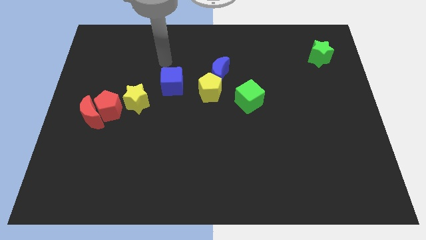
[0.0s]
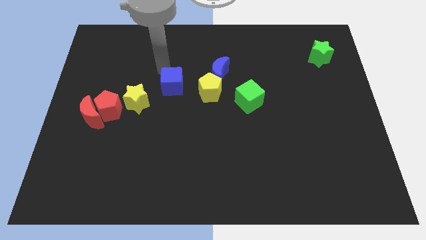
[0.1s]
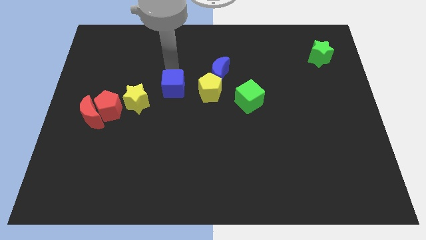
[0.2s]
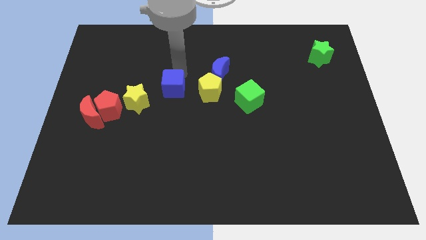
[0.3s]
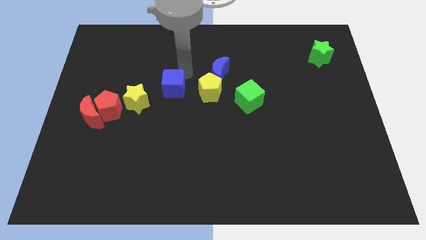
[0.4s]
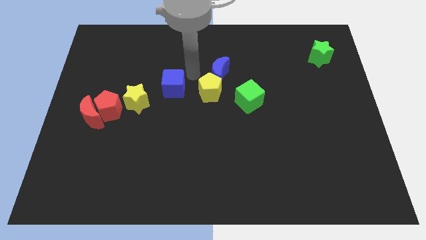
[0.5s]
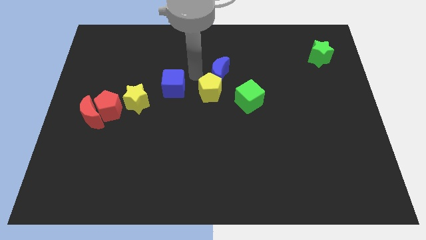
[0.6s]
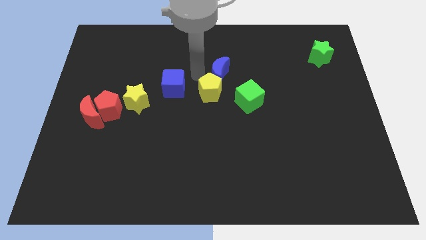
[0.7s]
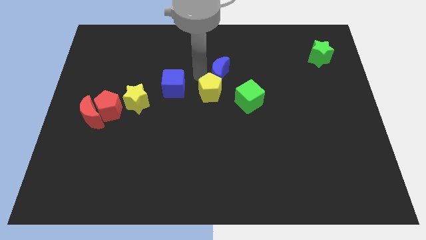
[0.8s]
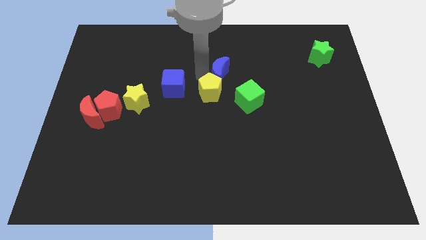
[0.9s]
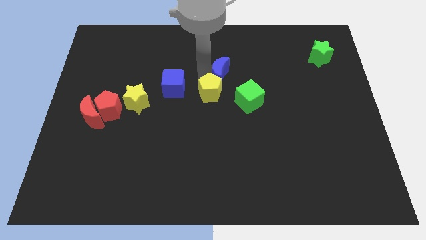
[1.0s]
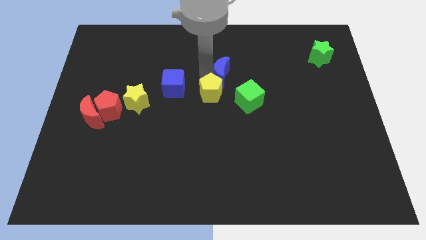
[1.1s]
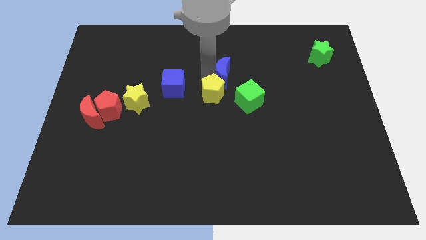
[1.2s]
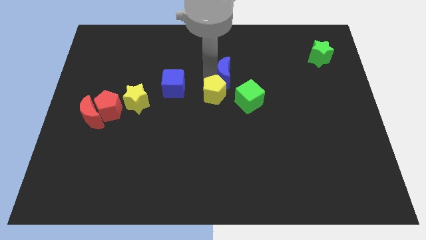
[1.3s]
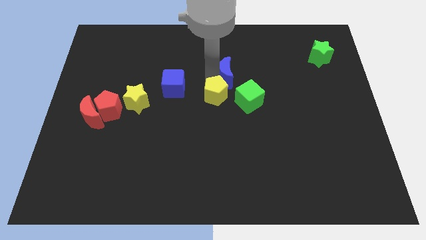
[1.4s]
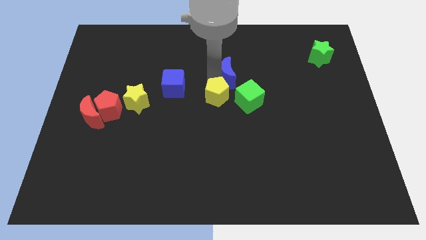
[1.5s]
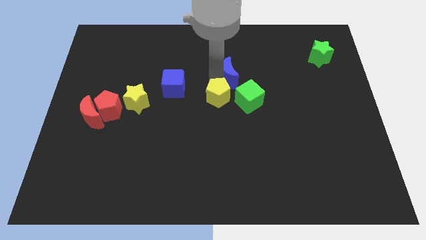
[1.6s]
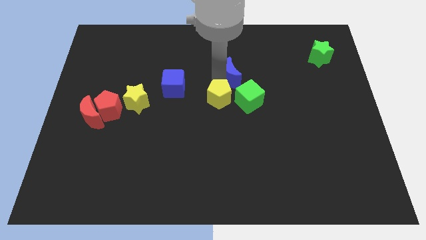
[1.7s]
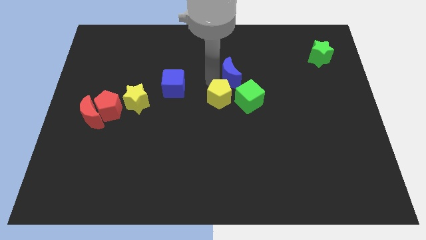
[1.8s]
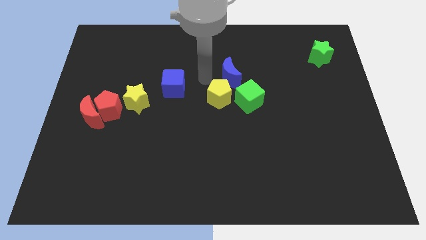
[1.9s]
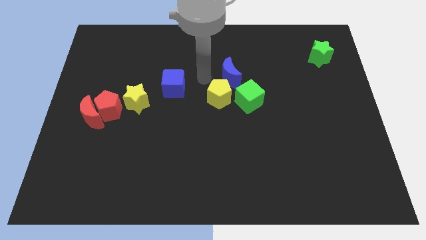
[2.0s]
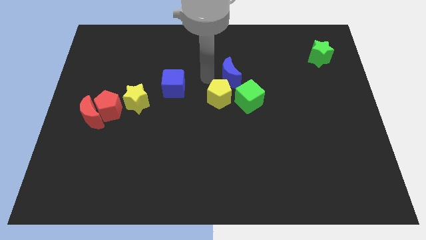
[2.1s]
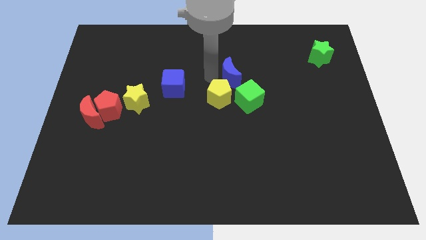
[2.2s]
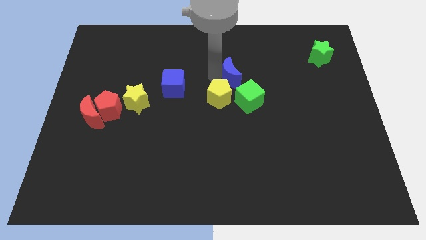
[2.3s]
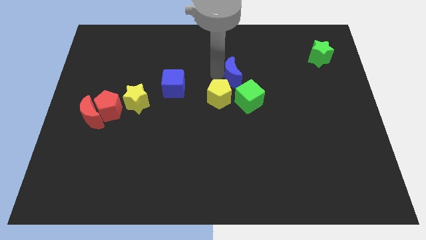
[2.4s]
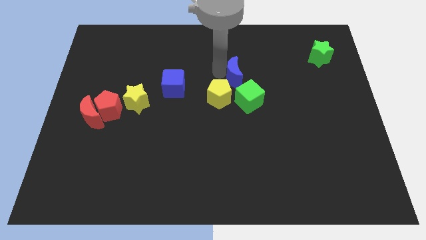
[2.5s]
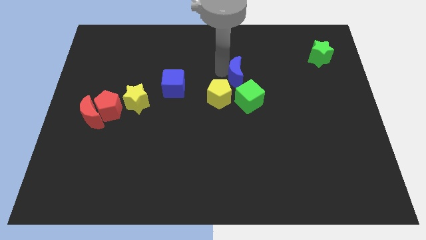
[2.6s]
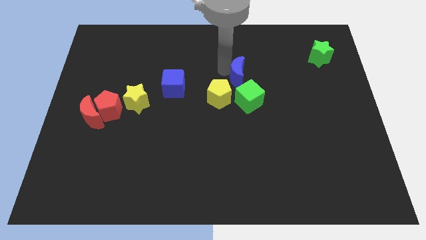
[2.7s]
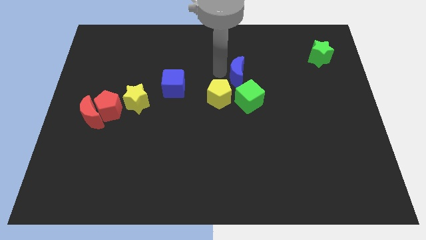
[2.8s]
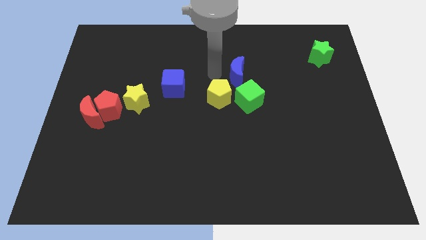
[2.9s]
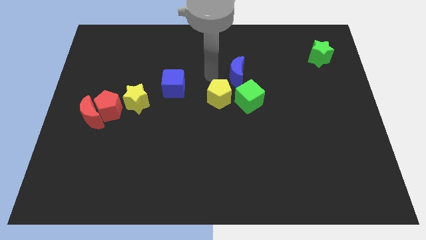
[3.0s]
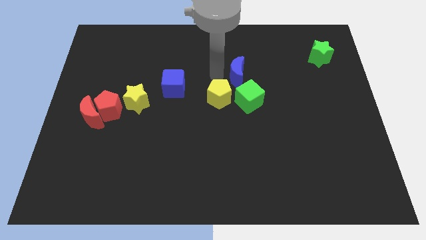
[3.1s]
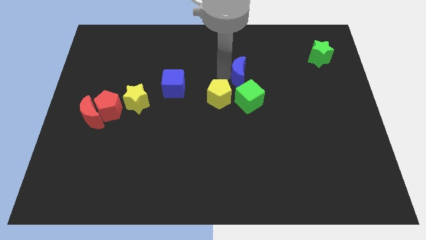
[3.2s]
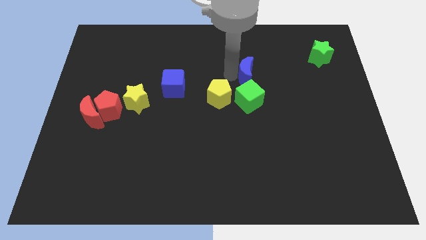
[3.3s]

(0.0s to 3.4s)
move the blue moon somewhat to the right

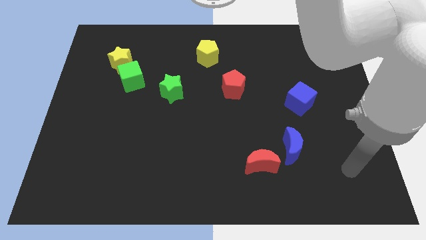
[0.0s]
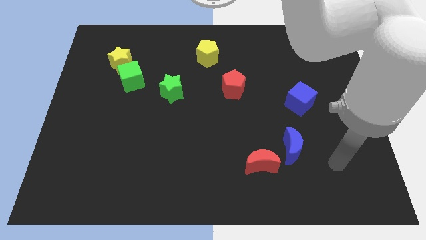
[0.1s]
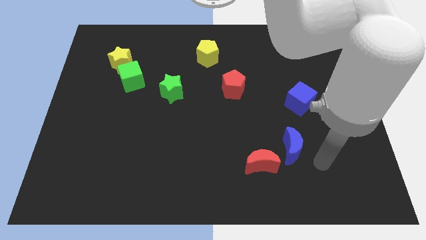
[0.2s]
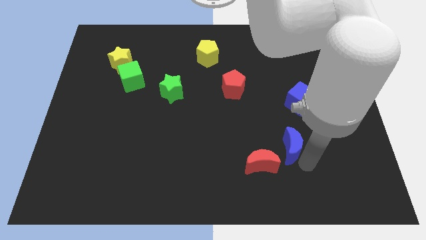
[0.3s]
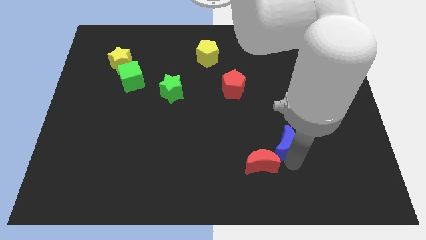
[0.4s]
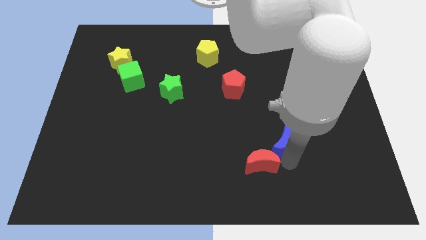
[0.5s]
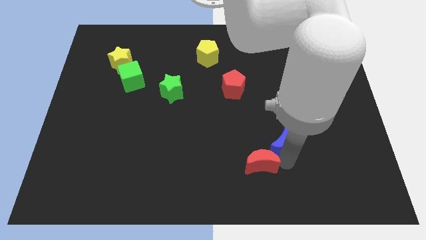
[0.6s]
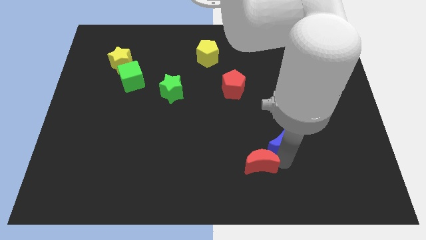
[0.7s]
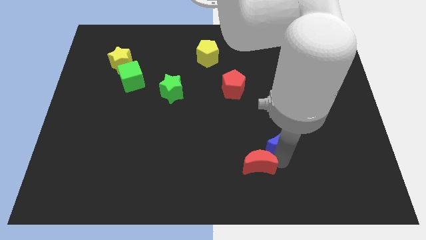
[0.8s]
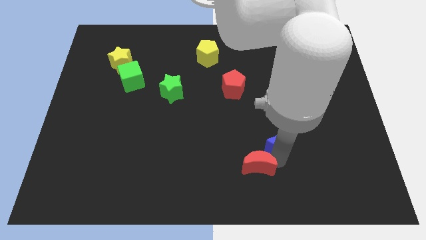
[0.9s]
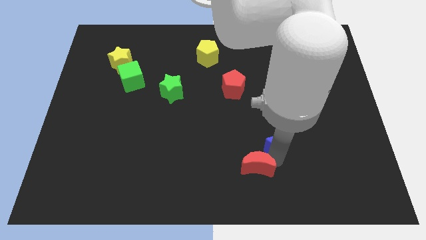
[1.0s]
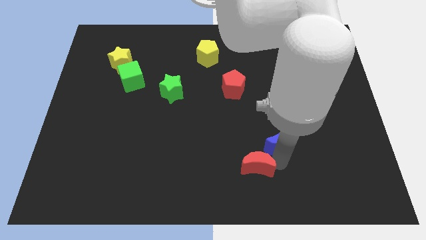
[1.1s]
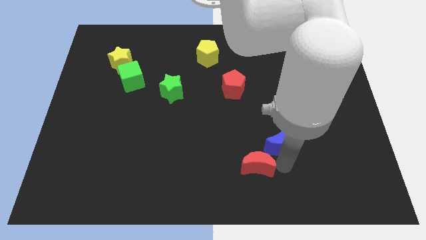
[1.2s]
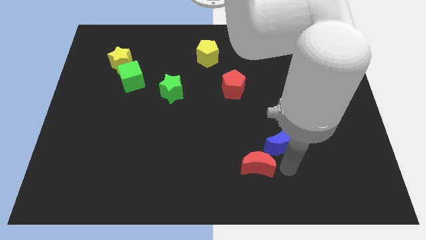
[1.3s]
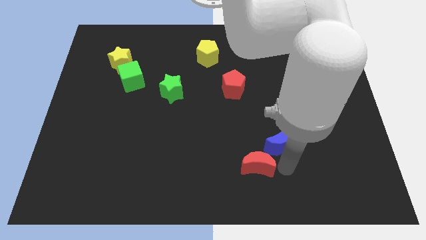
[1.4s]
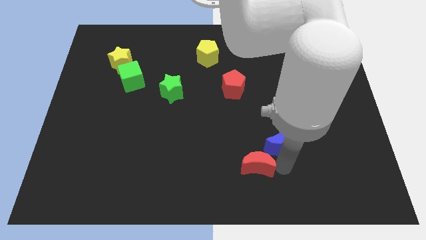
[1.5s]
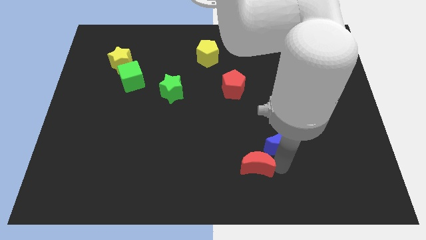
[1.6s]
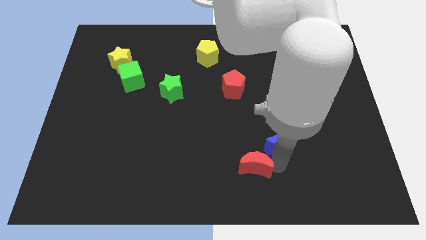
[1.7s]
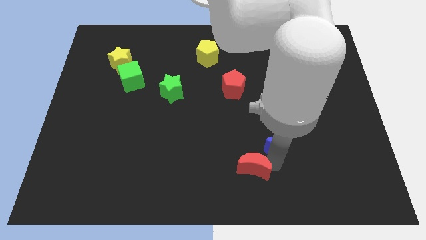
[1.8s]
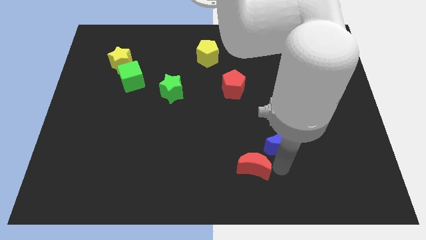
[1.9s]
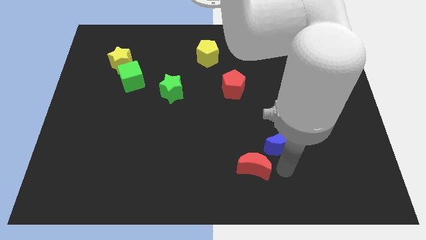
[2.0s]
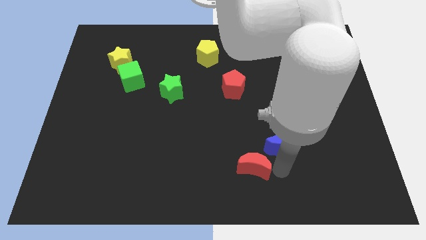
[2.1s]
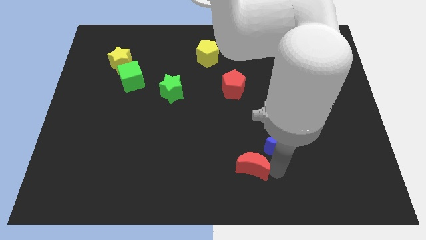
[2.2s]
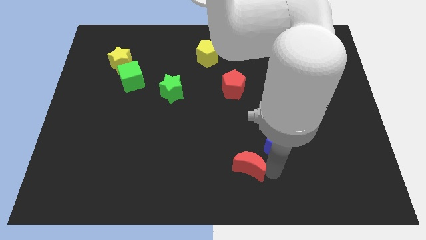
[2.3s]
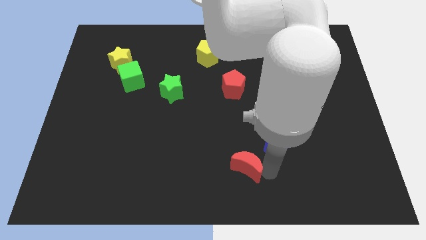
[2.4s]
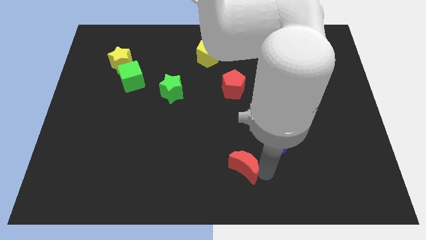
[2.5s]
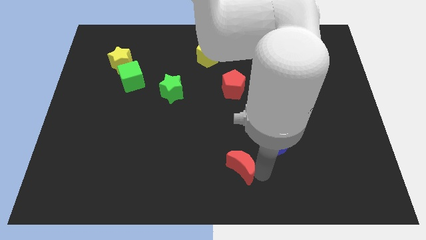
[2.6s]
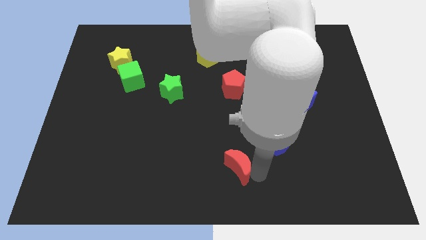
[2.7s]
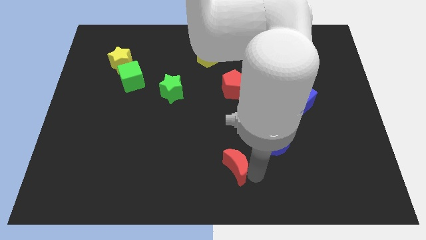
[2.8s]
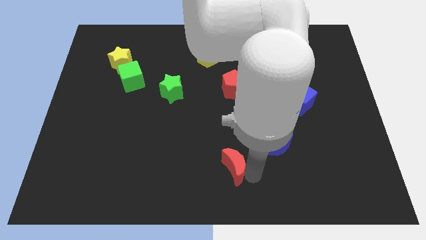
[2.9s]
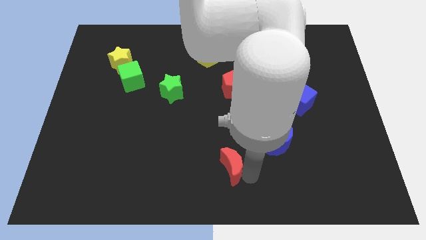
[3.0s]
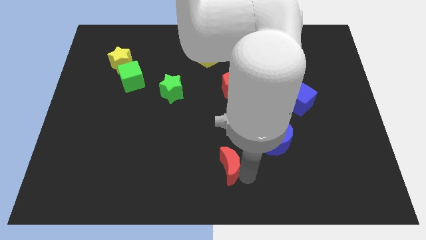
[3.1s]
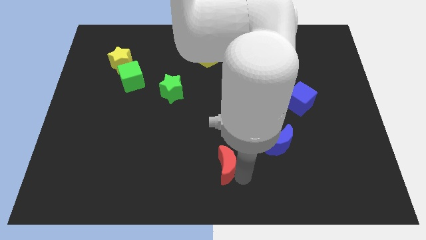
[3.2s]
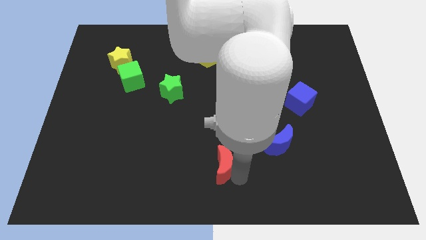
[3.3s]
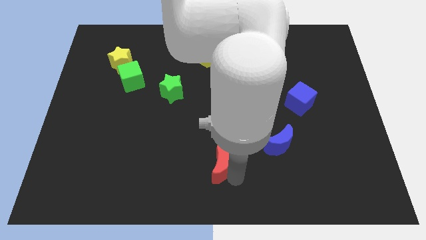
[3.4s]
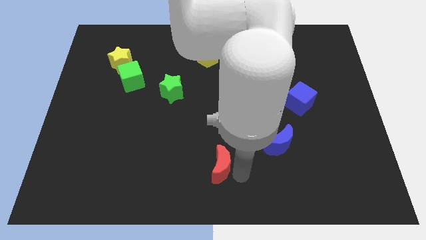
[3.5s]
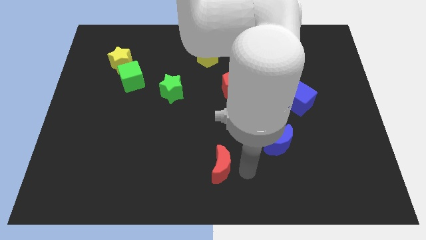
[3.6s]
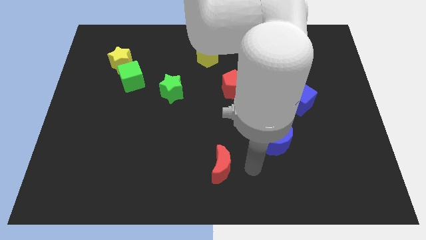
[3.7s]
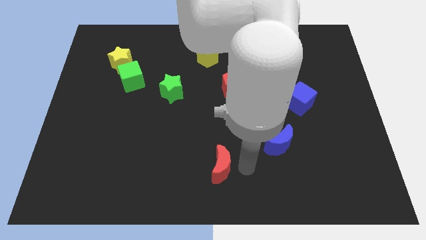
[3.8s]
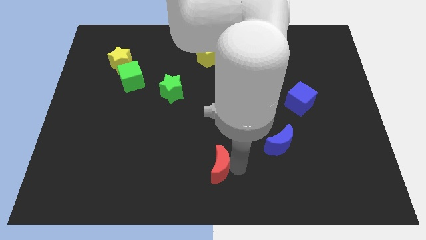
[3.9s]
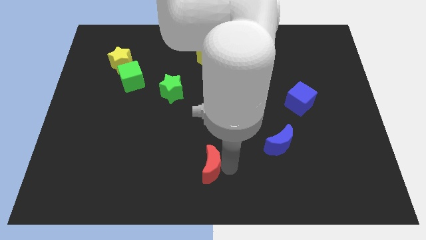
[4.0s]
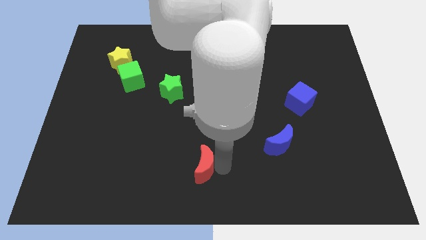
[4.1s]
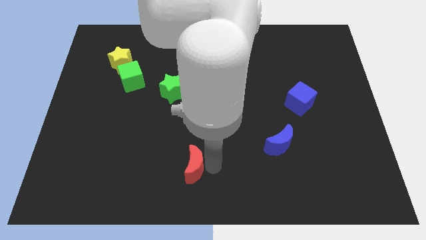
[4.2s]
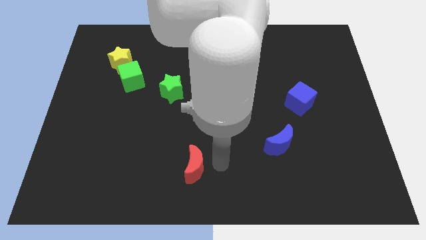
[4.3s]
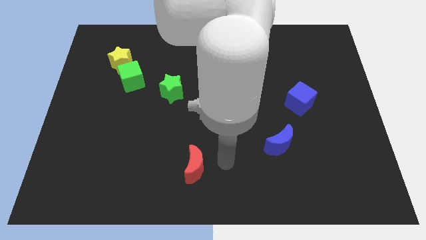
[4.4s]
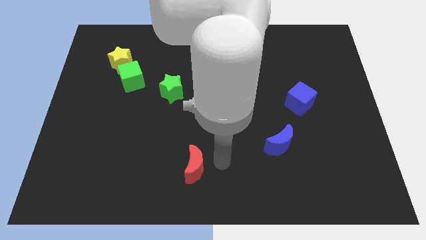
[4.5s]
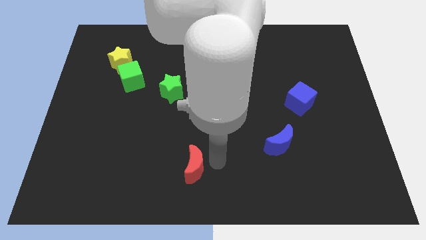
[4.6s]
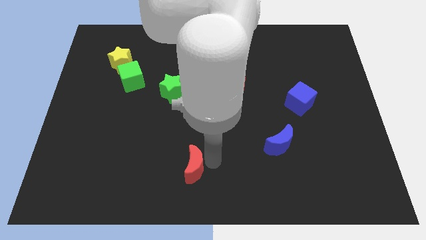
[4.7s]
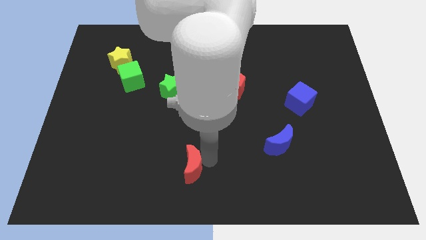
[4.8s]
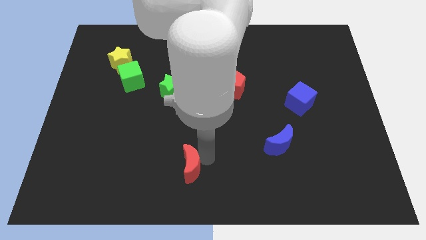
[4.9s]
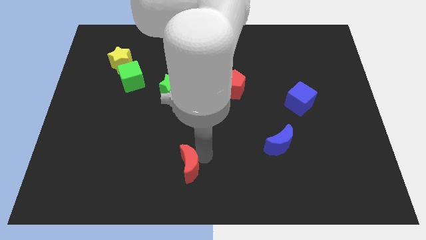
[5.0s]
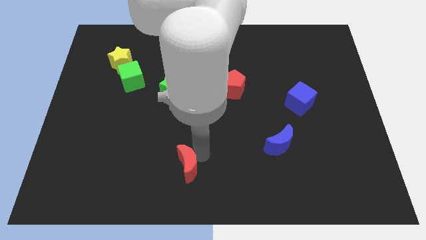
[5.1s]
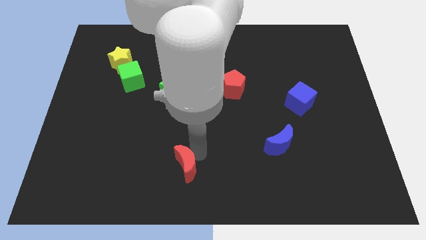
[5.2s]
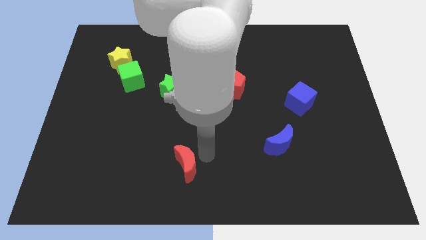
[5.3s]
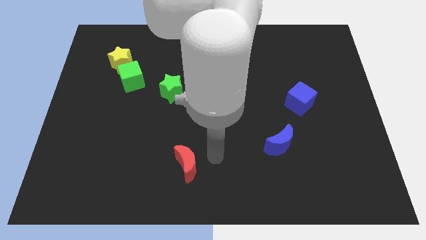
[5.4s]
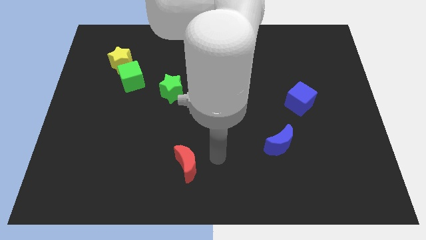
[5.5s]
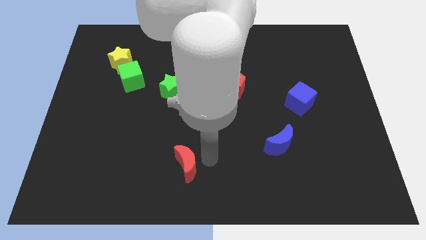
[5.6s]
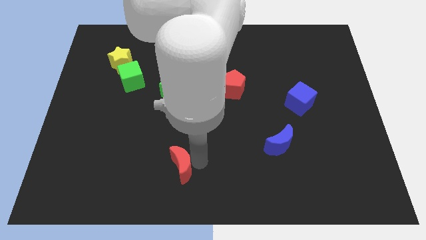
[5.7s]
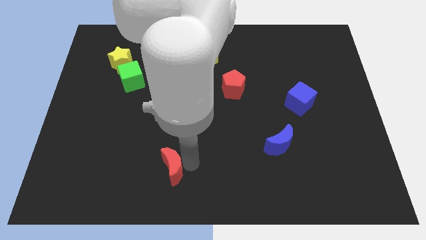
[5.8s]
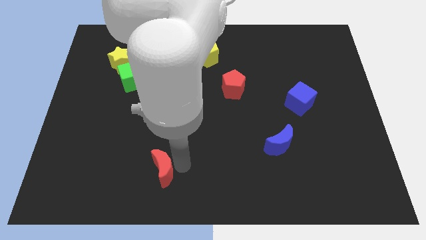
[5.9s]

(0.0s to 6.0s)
push the red moon to the left
